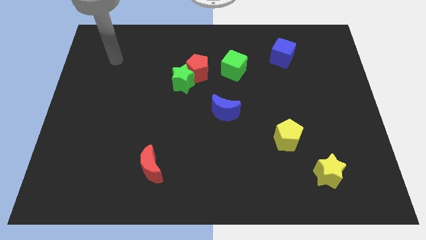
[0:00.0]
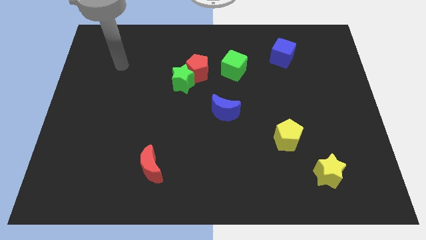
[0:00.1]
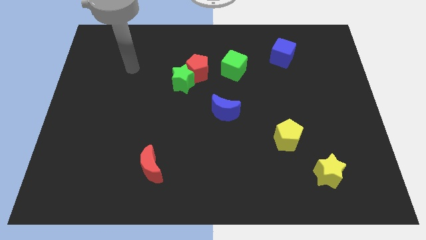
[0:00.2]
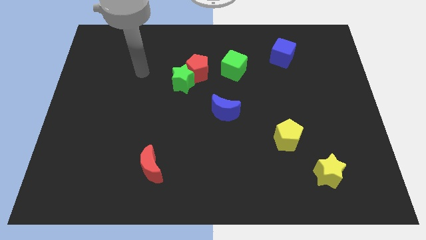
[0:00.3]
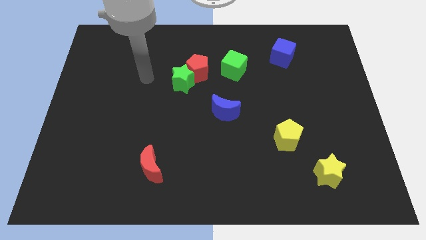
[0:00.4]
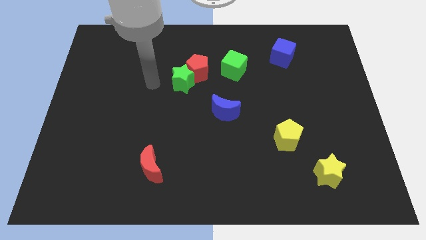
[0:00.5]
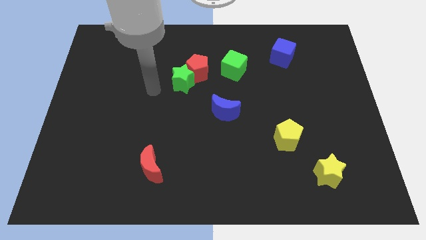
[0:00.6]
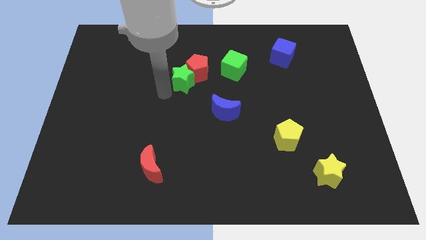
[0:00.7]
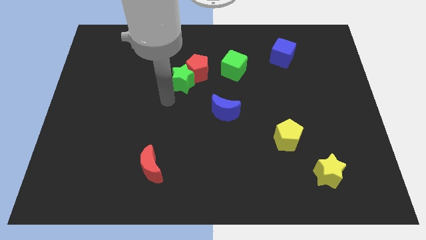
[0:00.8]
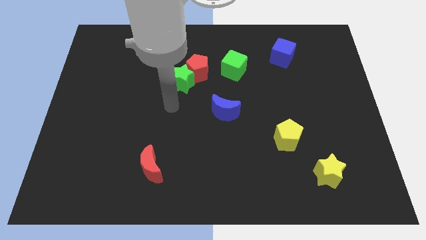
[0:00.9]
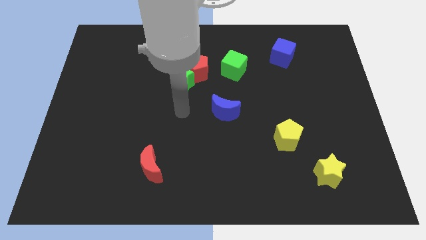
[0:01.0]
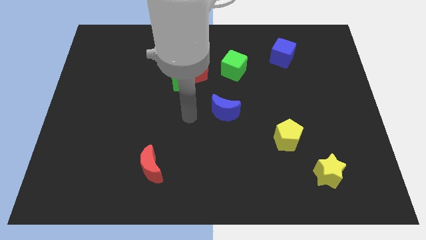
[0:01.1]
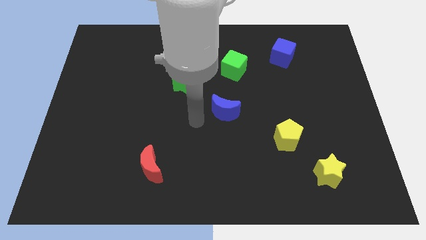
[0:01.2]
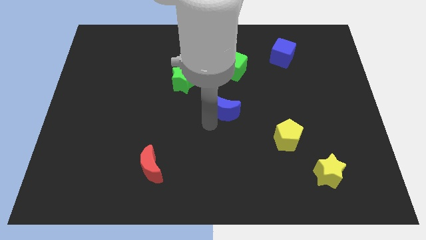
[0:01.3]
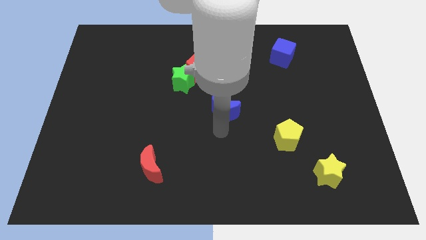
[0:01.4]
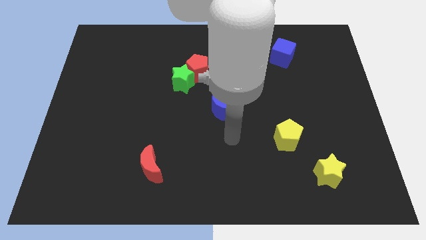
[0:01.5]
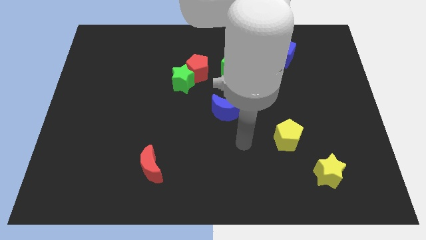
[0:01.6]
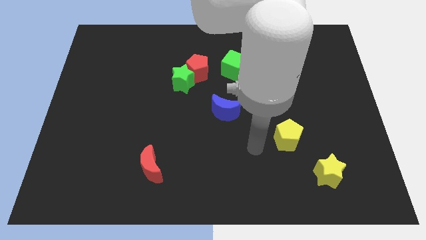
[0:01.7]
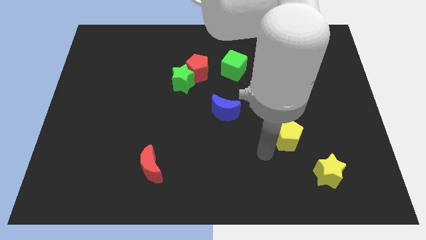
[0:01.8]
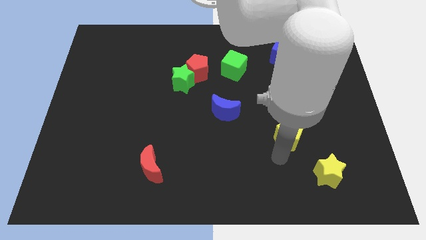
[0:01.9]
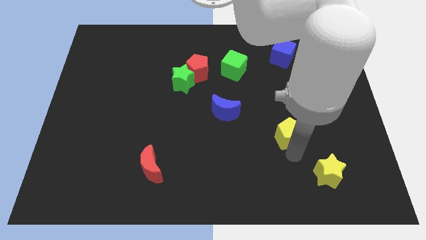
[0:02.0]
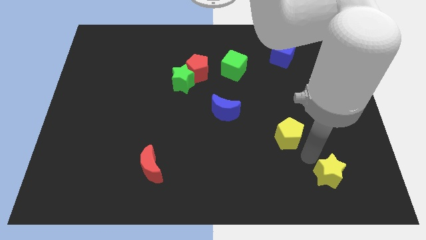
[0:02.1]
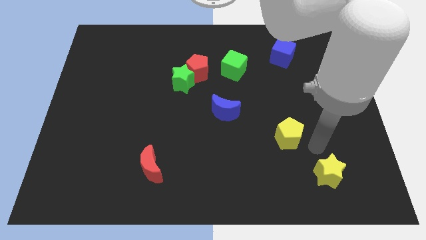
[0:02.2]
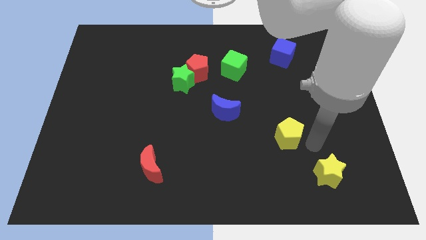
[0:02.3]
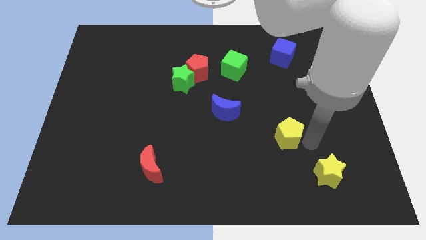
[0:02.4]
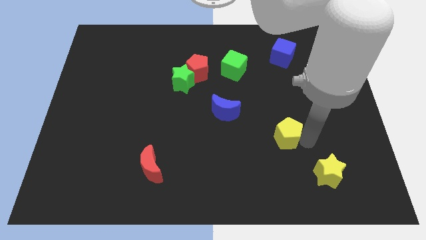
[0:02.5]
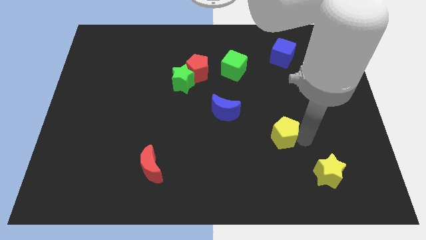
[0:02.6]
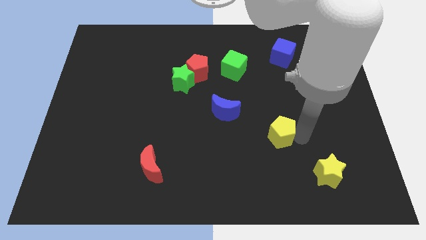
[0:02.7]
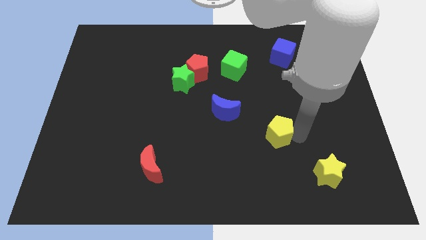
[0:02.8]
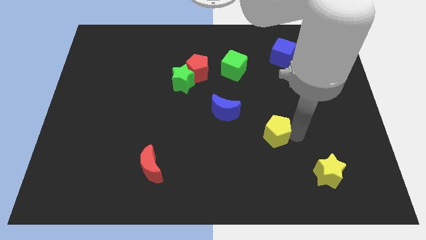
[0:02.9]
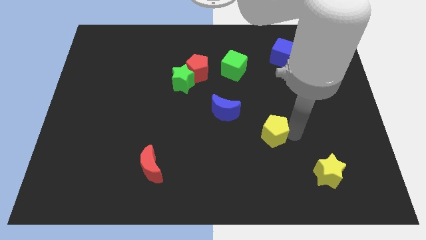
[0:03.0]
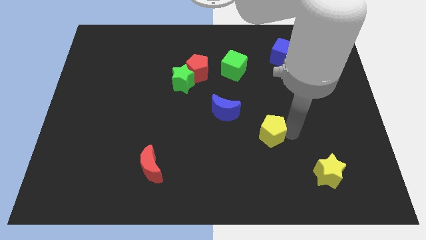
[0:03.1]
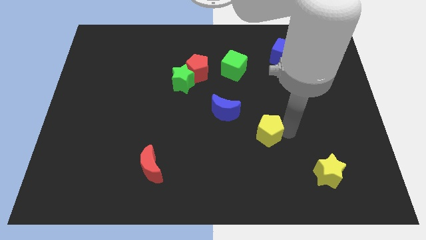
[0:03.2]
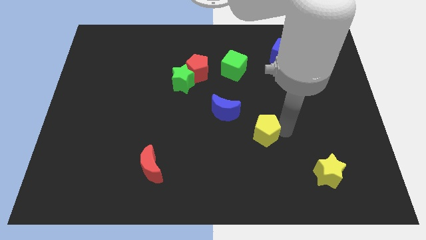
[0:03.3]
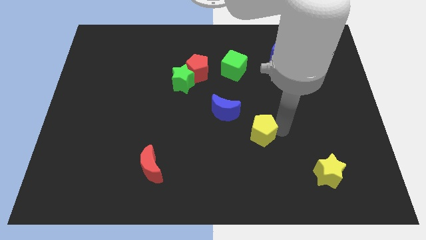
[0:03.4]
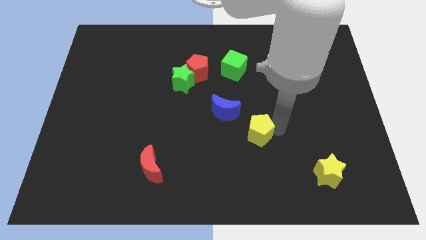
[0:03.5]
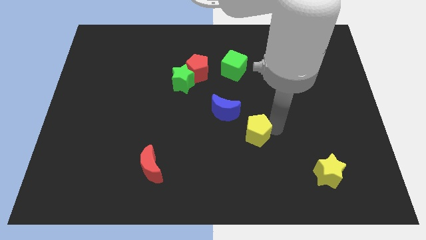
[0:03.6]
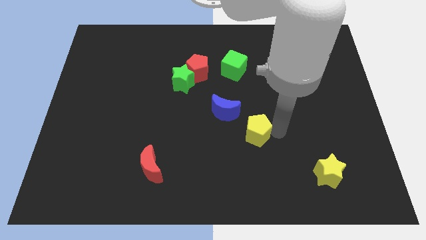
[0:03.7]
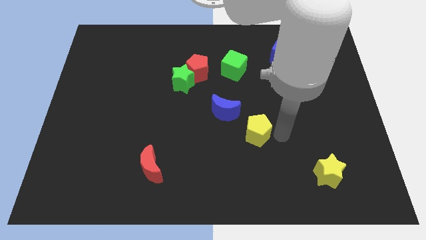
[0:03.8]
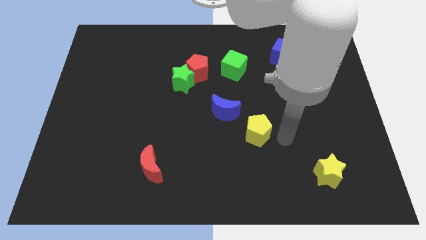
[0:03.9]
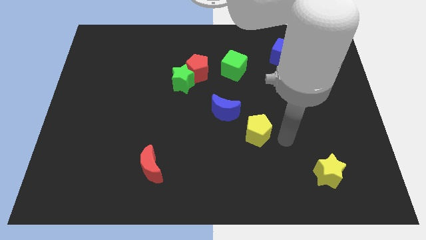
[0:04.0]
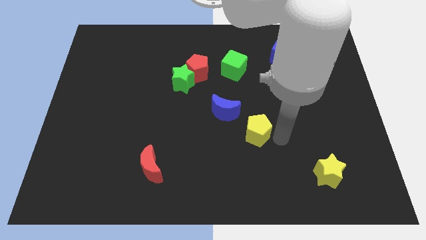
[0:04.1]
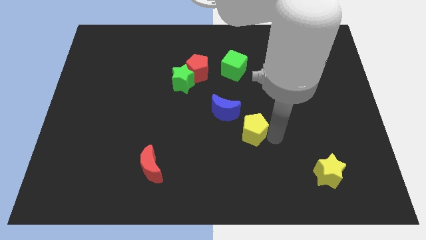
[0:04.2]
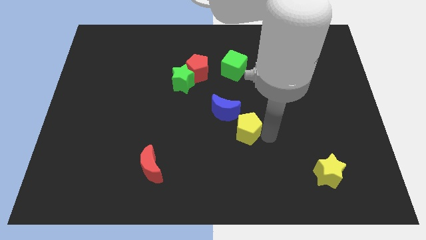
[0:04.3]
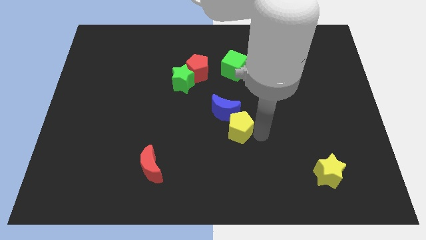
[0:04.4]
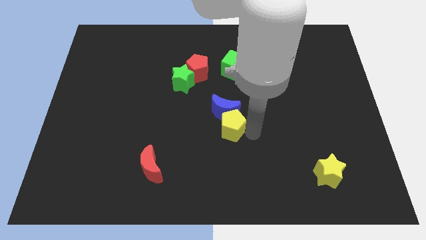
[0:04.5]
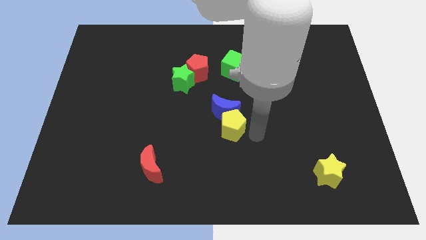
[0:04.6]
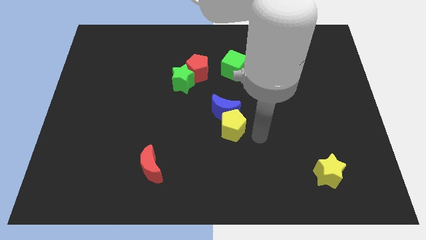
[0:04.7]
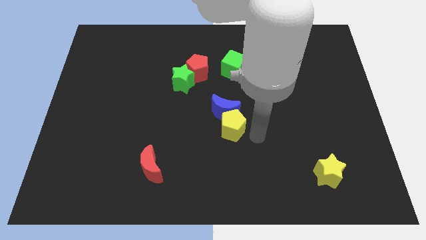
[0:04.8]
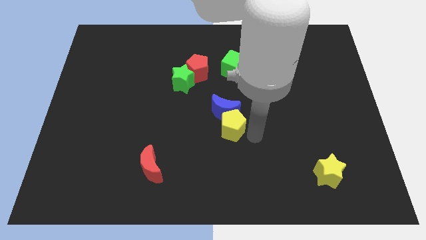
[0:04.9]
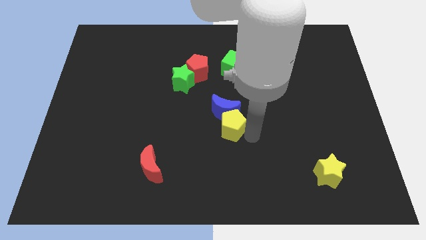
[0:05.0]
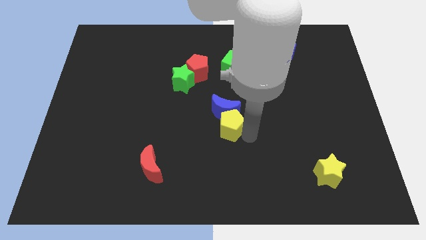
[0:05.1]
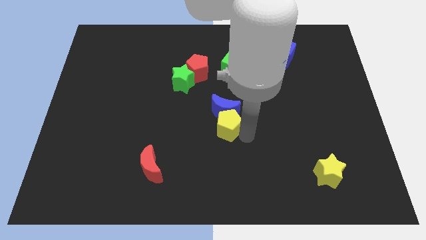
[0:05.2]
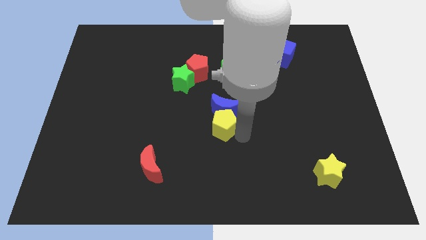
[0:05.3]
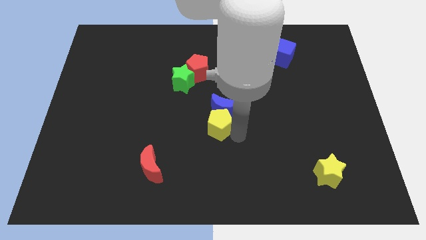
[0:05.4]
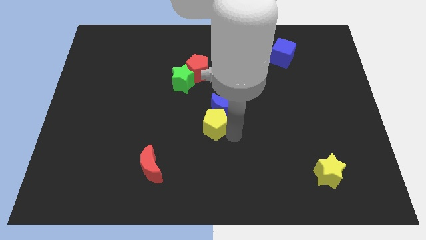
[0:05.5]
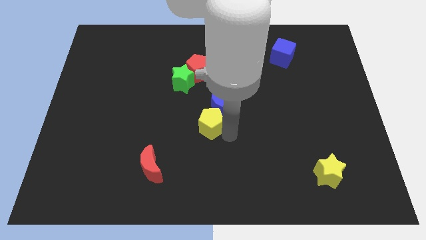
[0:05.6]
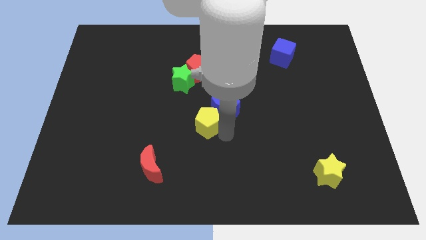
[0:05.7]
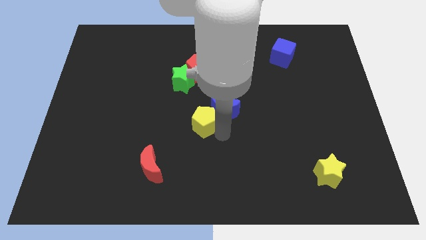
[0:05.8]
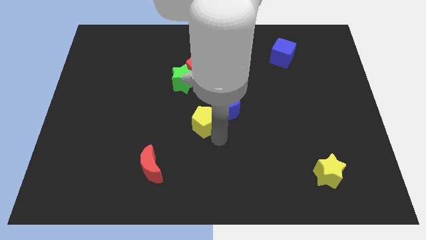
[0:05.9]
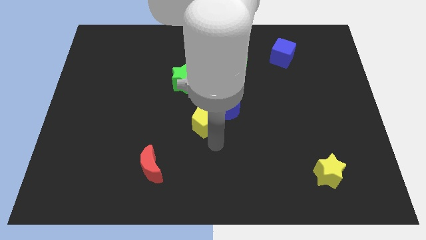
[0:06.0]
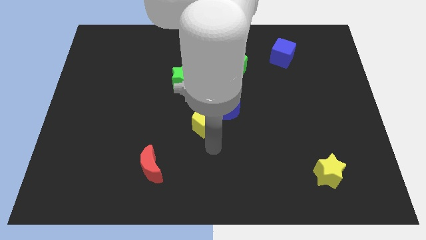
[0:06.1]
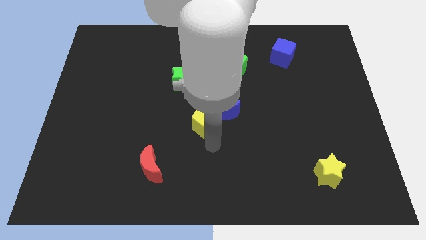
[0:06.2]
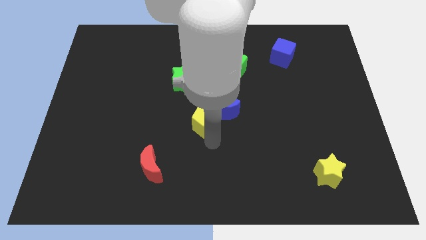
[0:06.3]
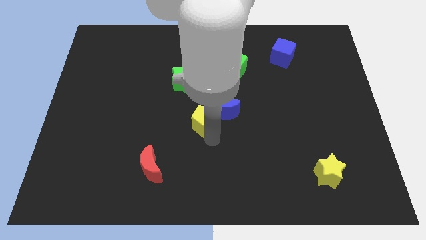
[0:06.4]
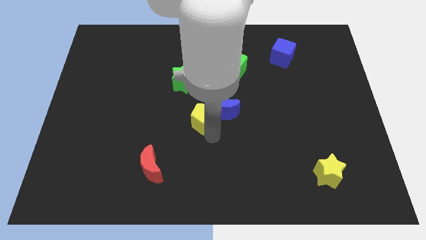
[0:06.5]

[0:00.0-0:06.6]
put the yellow pentagon below the red pentagon

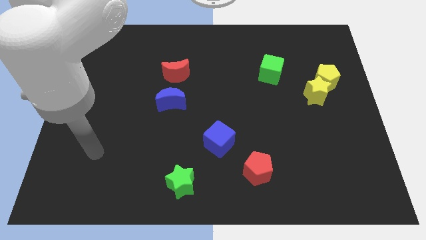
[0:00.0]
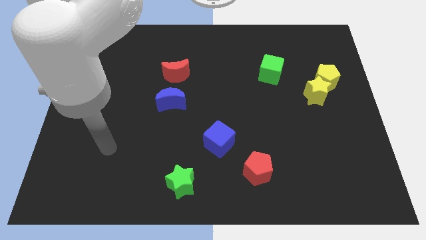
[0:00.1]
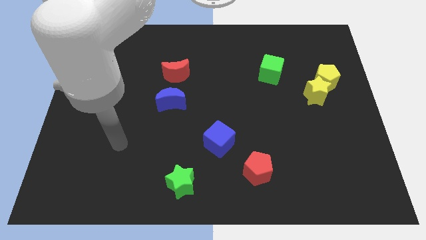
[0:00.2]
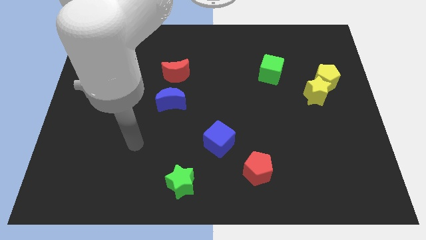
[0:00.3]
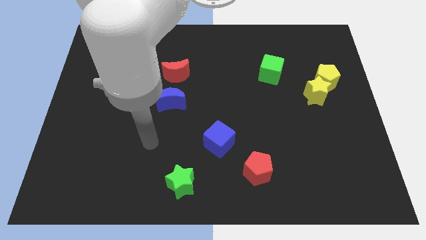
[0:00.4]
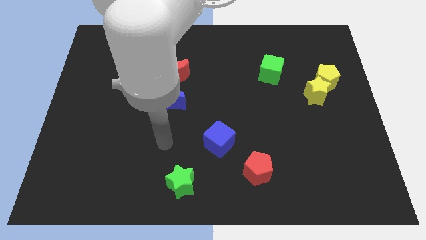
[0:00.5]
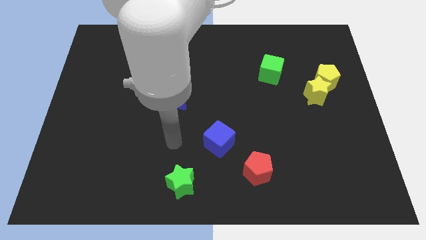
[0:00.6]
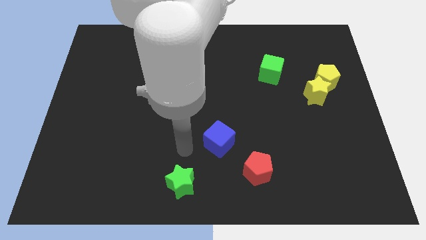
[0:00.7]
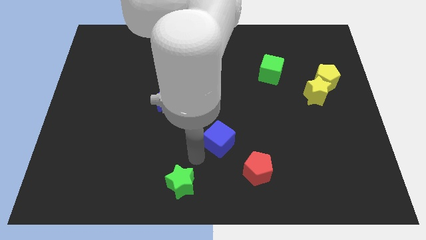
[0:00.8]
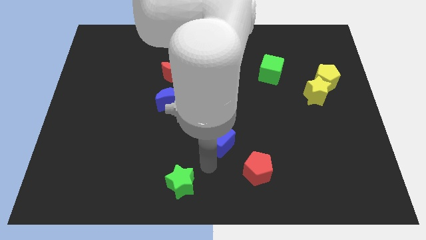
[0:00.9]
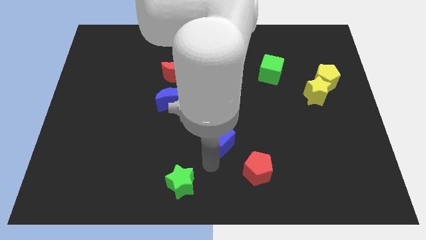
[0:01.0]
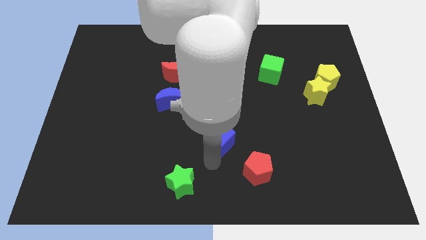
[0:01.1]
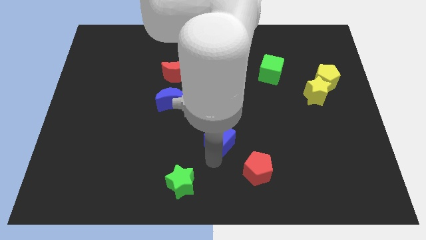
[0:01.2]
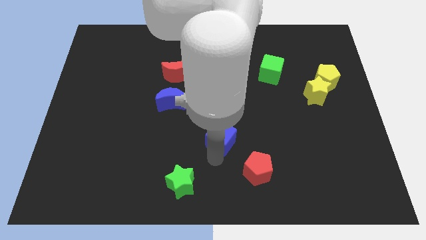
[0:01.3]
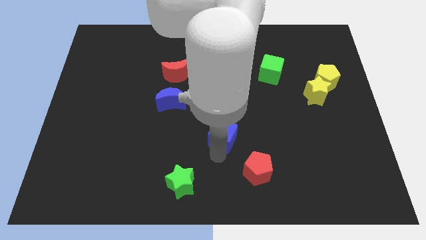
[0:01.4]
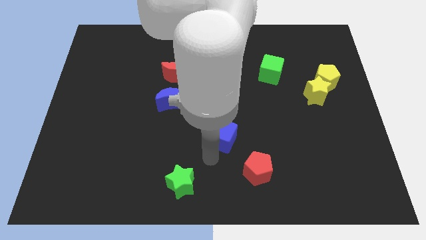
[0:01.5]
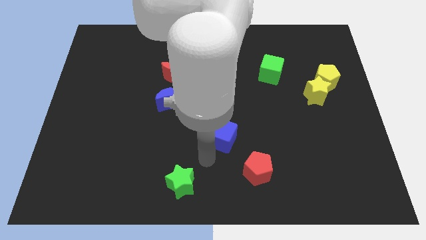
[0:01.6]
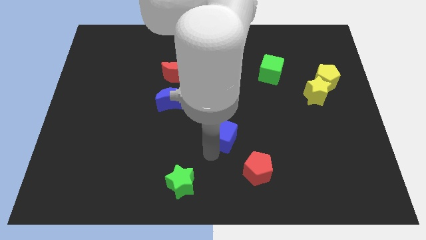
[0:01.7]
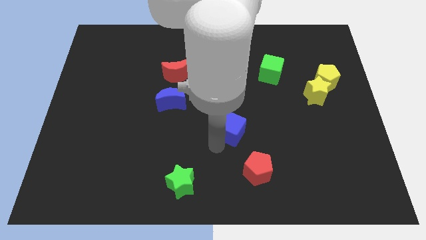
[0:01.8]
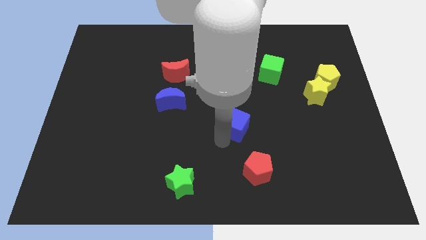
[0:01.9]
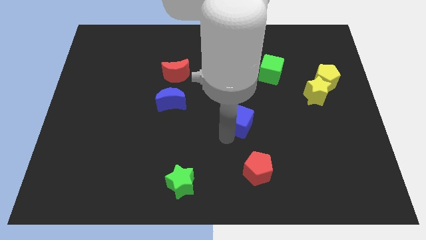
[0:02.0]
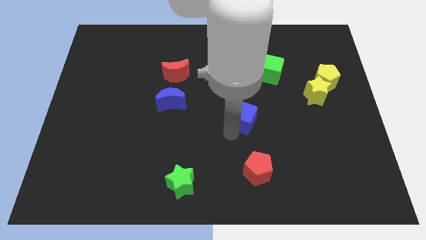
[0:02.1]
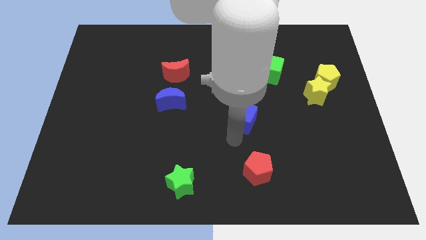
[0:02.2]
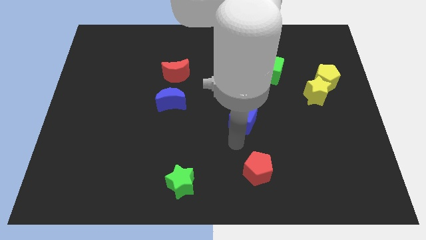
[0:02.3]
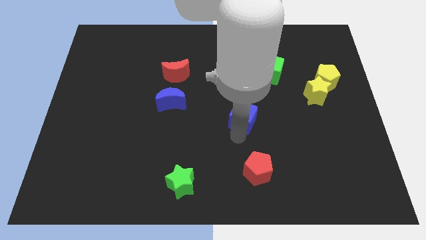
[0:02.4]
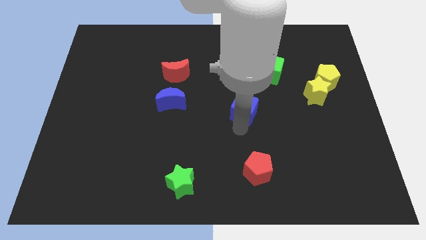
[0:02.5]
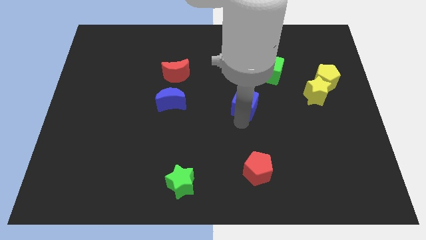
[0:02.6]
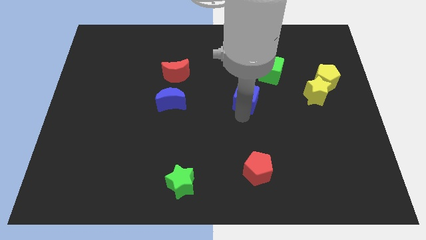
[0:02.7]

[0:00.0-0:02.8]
push the blue cube to the bottom left side of the green cube
